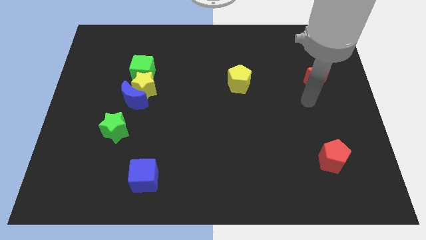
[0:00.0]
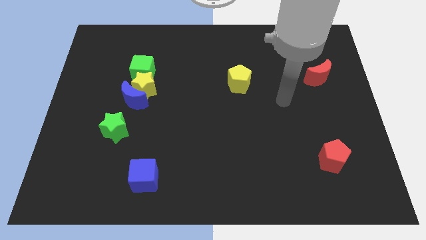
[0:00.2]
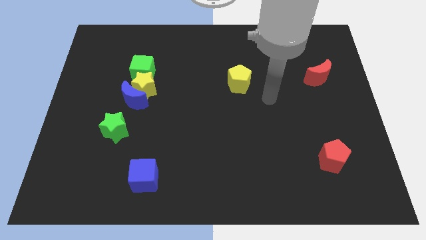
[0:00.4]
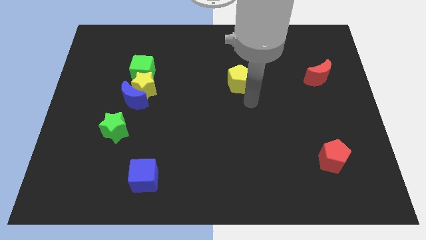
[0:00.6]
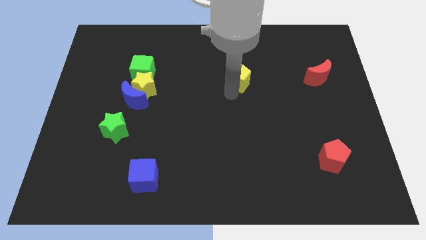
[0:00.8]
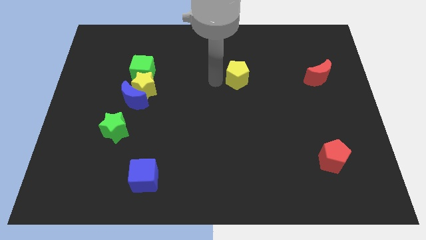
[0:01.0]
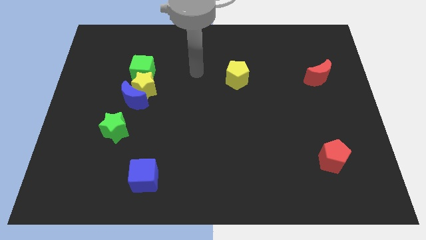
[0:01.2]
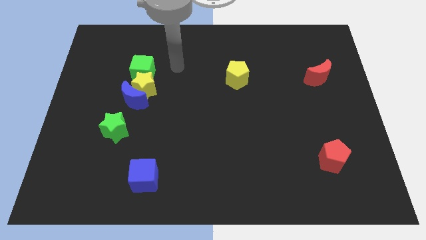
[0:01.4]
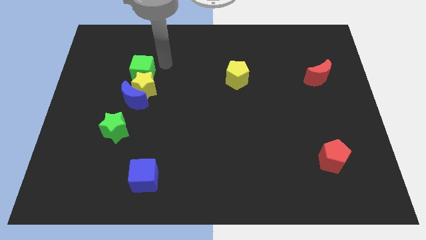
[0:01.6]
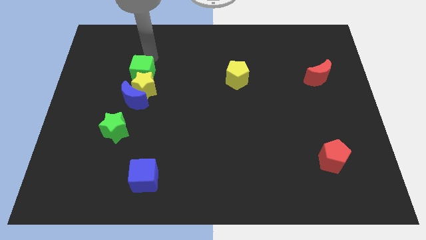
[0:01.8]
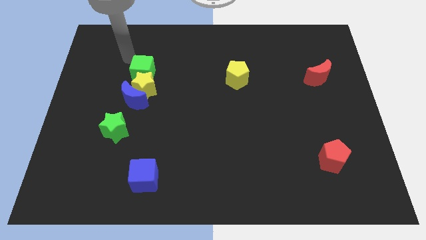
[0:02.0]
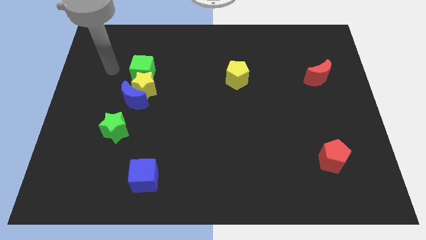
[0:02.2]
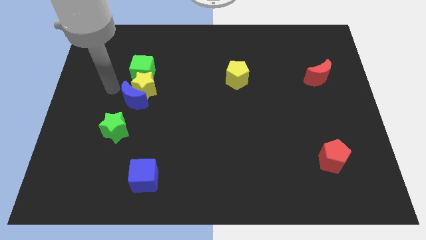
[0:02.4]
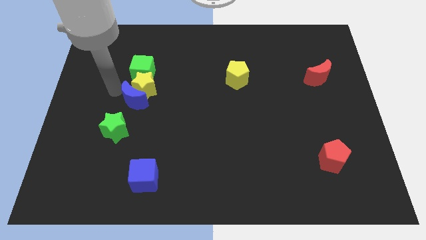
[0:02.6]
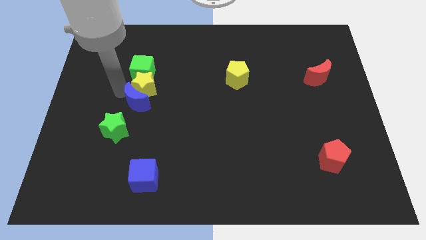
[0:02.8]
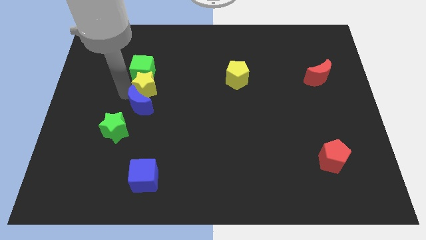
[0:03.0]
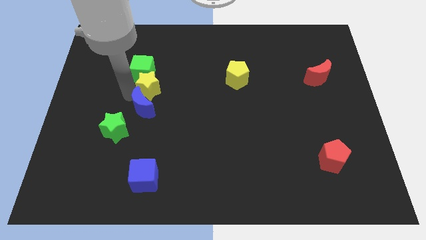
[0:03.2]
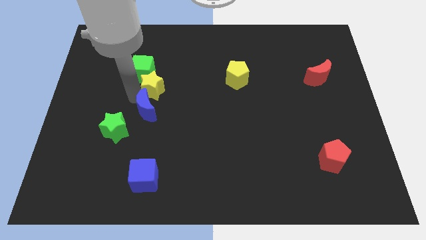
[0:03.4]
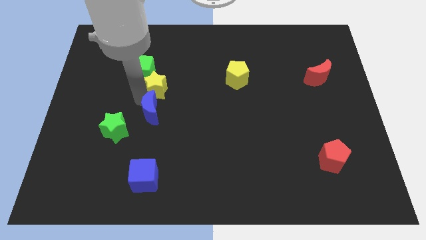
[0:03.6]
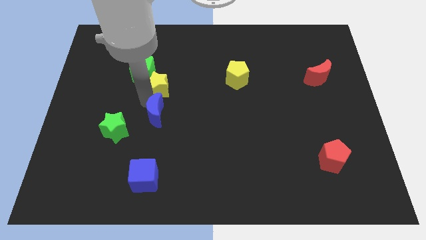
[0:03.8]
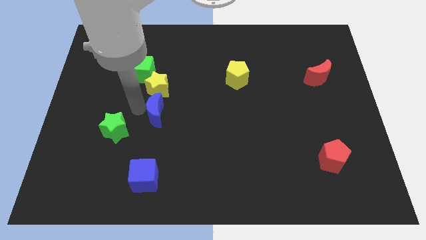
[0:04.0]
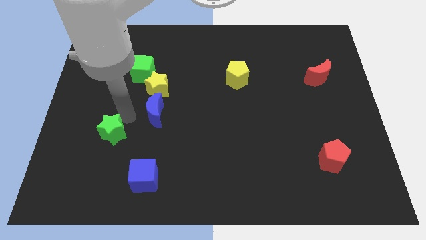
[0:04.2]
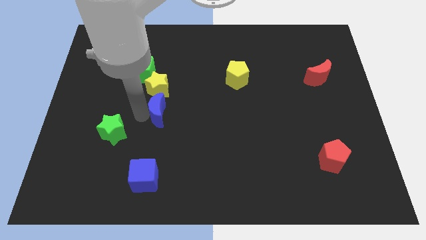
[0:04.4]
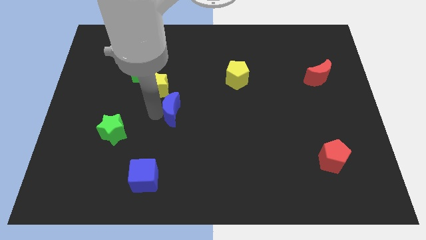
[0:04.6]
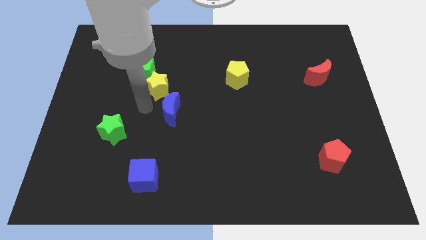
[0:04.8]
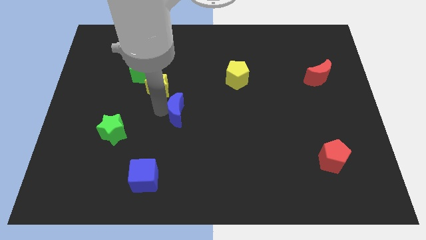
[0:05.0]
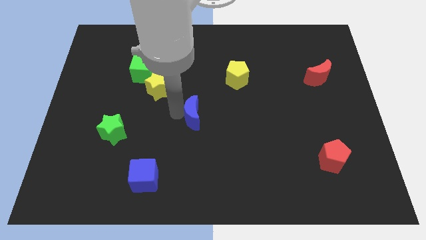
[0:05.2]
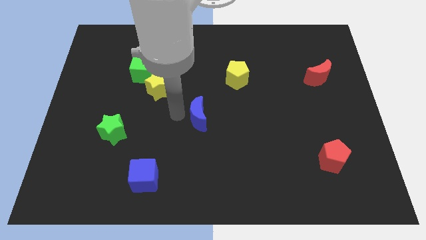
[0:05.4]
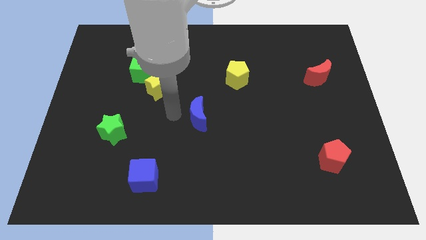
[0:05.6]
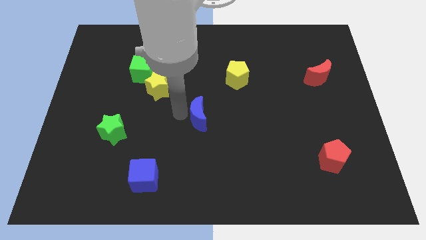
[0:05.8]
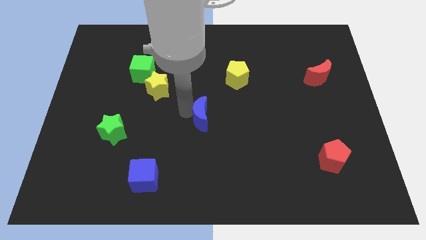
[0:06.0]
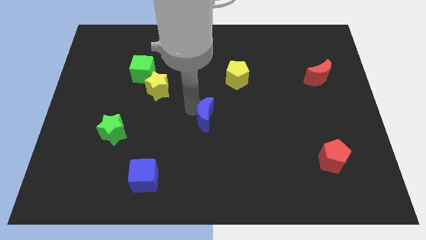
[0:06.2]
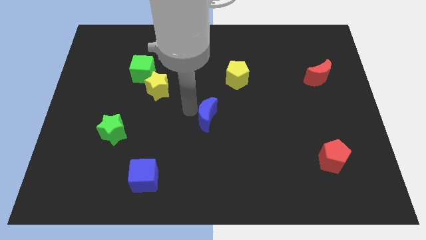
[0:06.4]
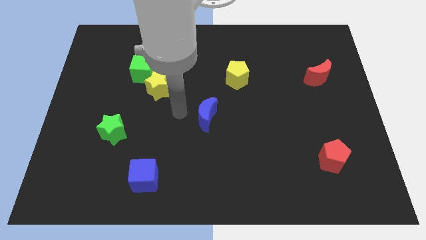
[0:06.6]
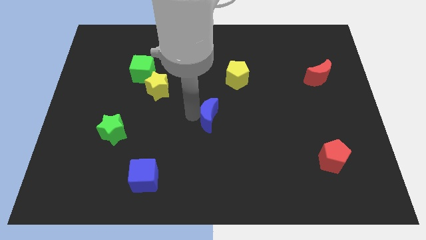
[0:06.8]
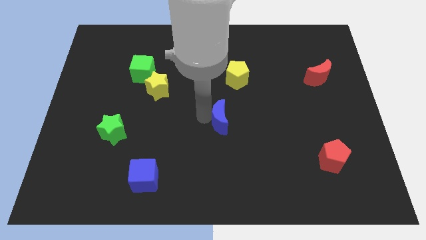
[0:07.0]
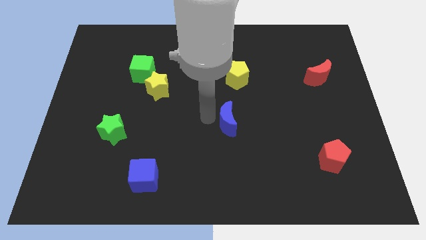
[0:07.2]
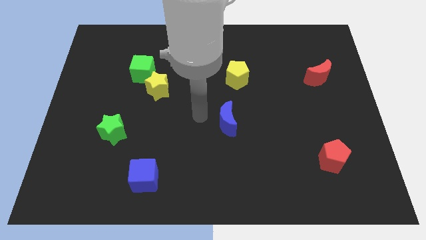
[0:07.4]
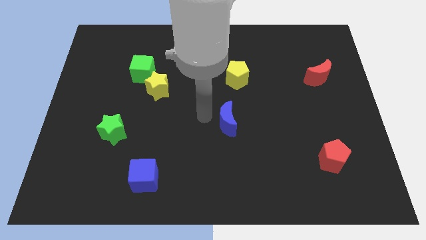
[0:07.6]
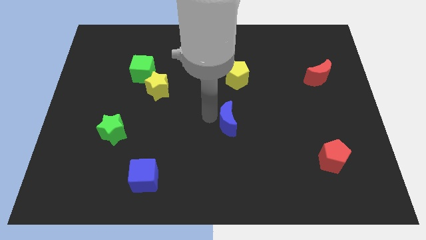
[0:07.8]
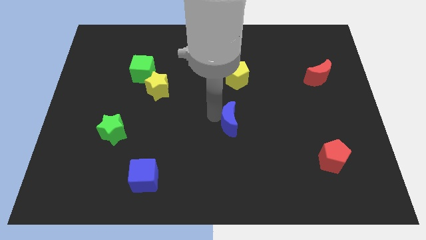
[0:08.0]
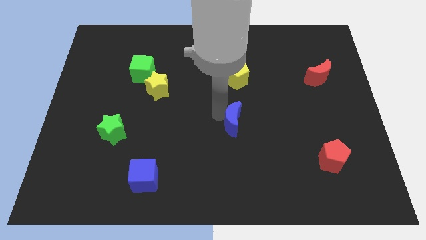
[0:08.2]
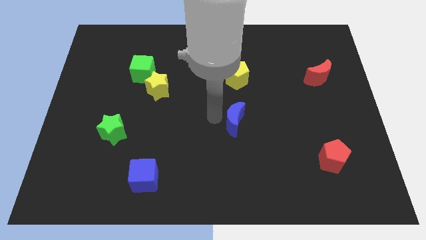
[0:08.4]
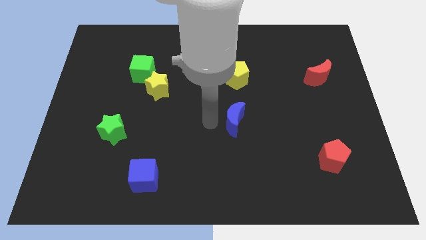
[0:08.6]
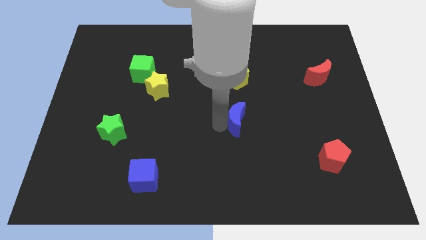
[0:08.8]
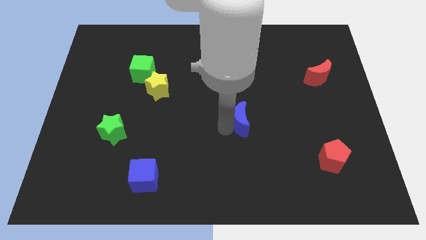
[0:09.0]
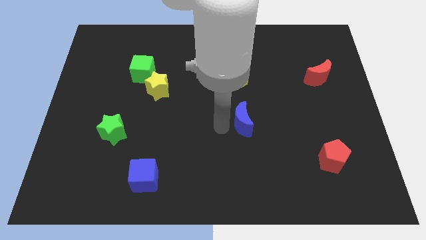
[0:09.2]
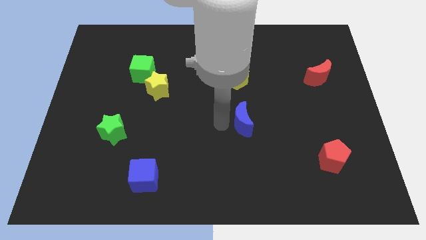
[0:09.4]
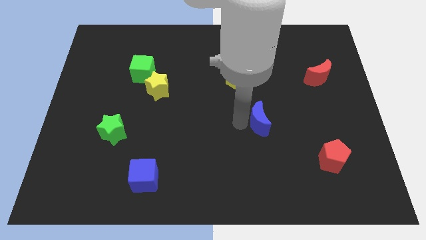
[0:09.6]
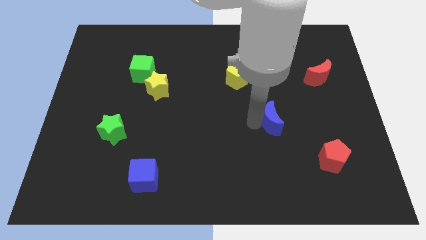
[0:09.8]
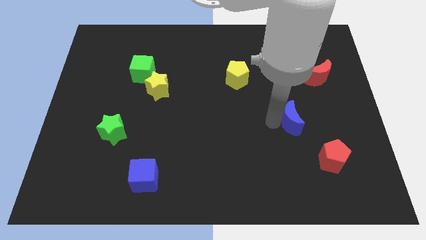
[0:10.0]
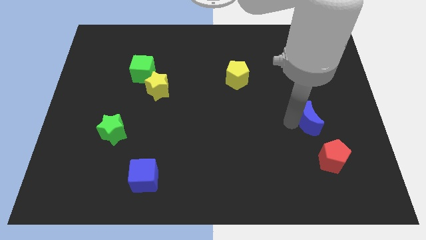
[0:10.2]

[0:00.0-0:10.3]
push the blue moon to the top side of the red pentagon

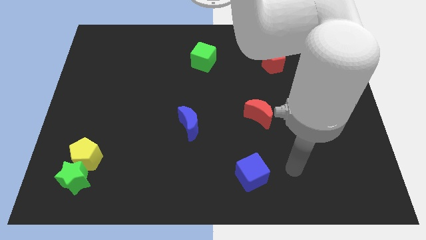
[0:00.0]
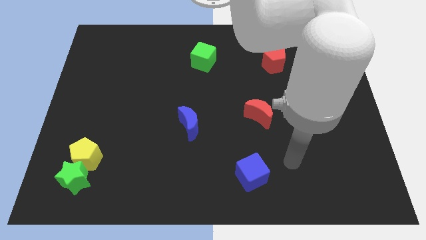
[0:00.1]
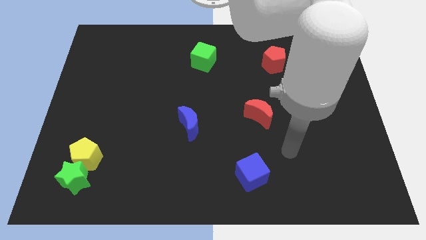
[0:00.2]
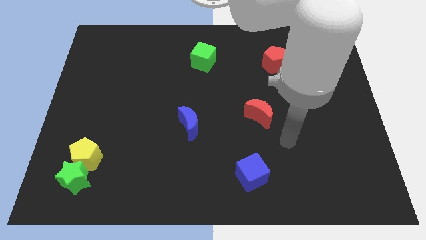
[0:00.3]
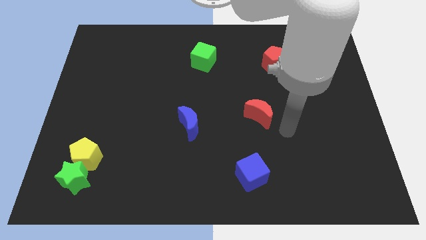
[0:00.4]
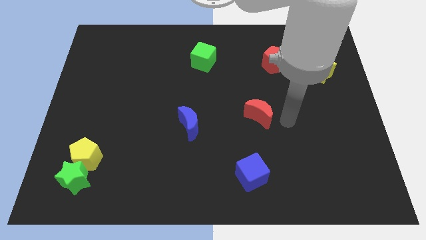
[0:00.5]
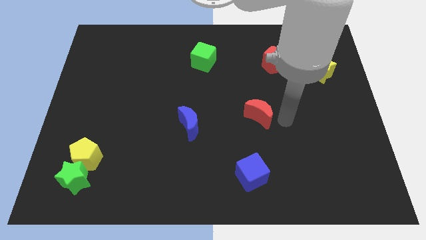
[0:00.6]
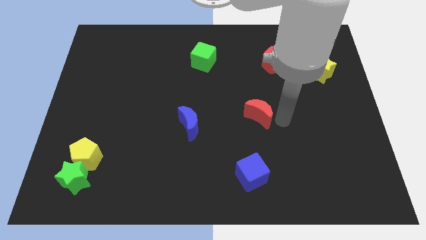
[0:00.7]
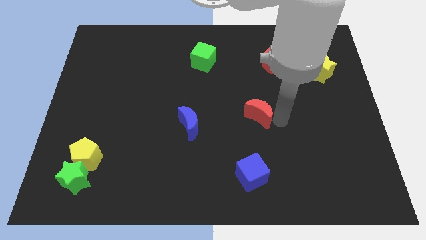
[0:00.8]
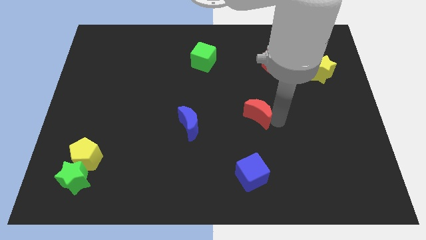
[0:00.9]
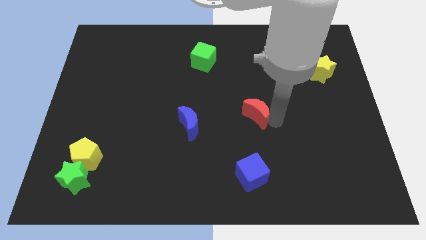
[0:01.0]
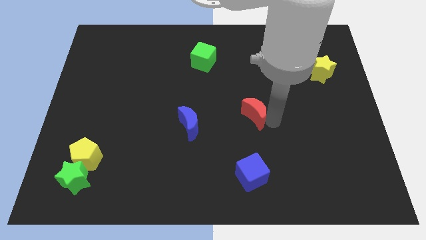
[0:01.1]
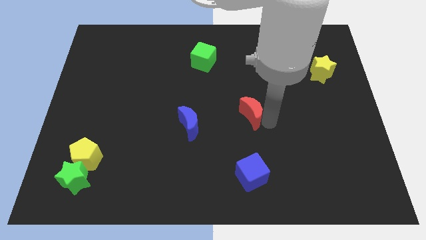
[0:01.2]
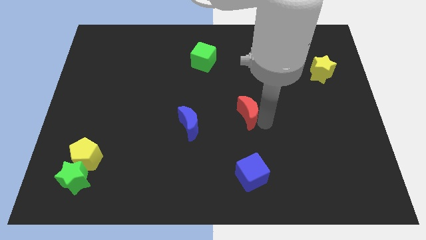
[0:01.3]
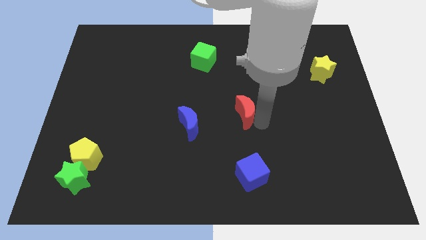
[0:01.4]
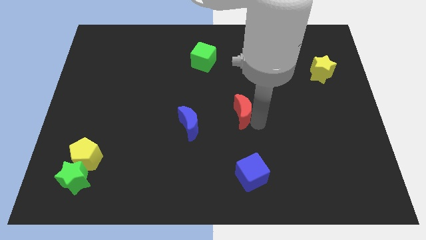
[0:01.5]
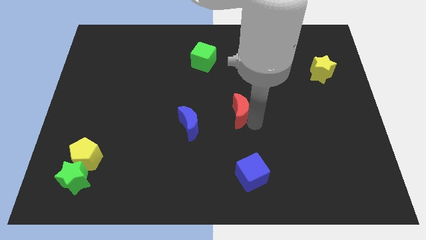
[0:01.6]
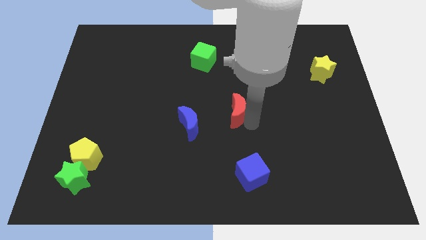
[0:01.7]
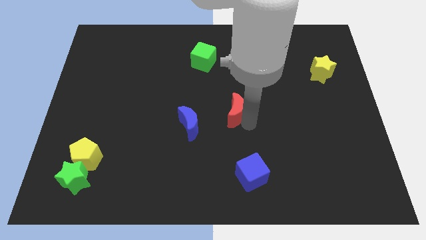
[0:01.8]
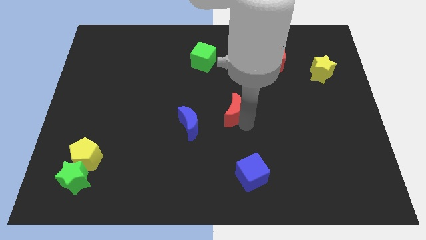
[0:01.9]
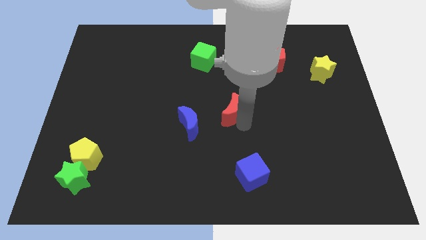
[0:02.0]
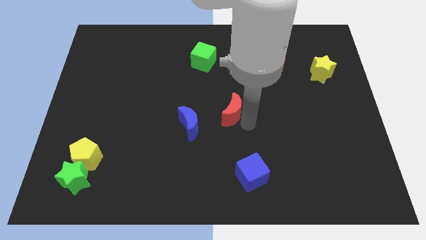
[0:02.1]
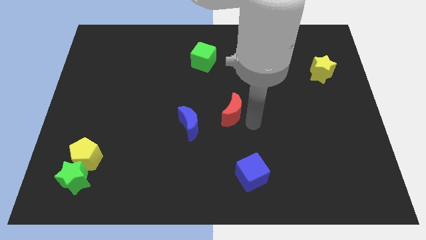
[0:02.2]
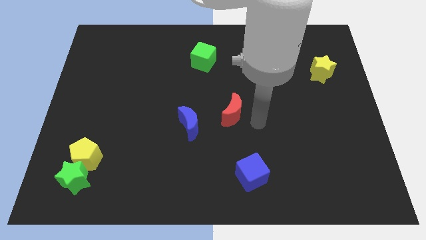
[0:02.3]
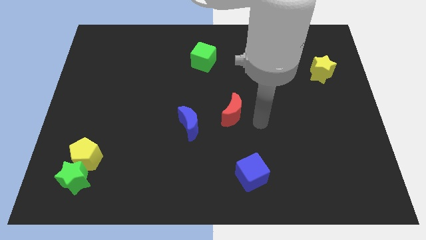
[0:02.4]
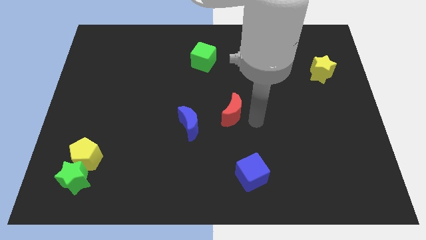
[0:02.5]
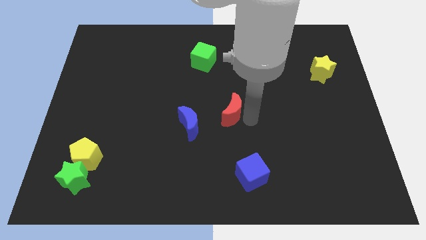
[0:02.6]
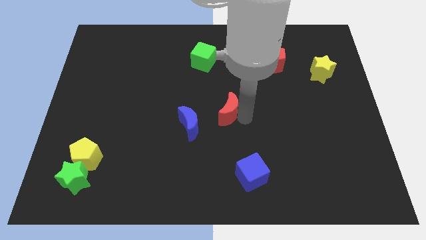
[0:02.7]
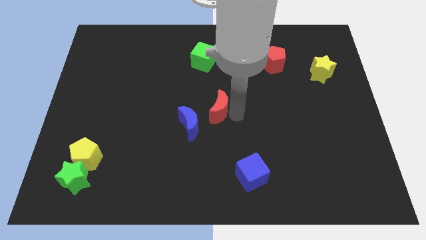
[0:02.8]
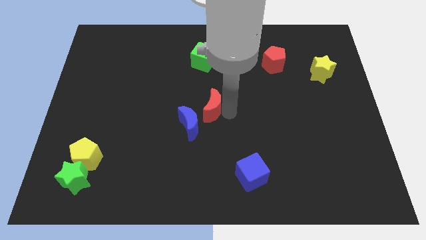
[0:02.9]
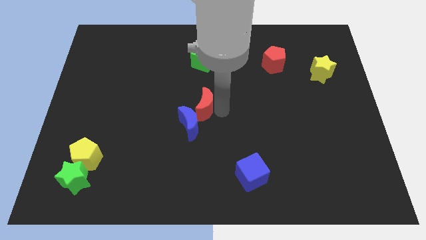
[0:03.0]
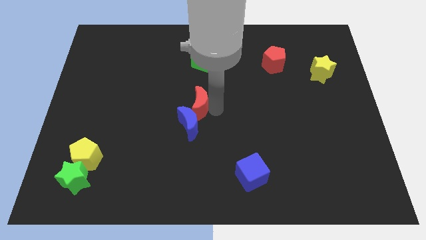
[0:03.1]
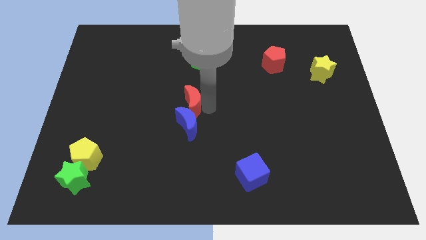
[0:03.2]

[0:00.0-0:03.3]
put the red moon to the top left of the blue moon
